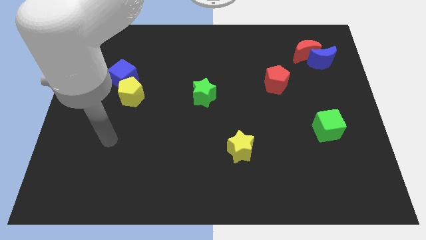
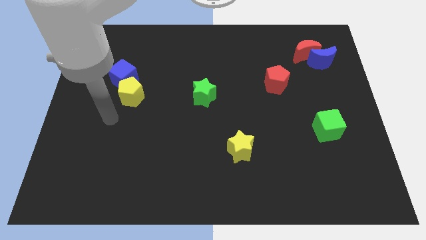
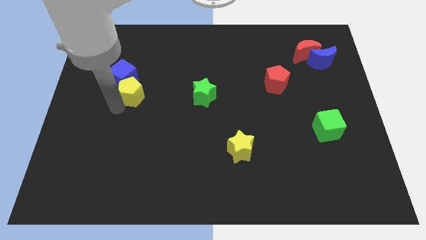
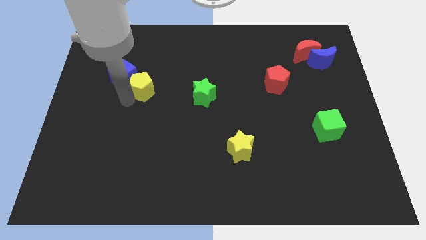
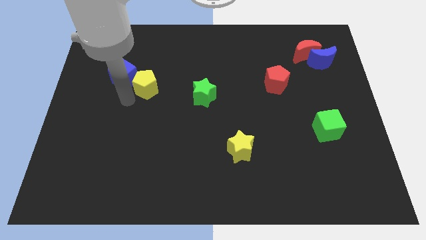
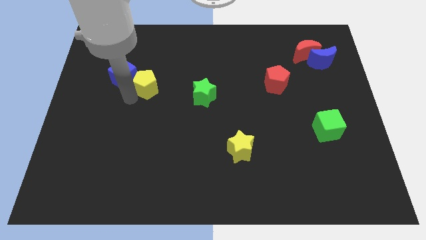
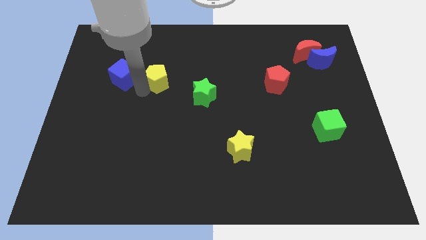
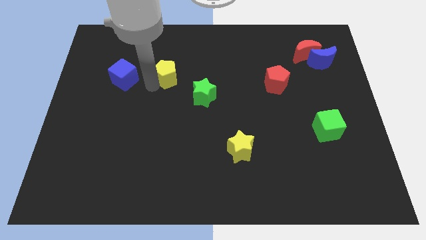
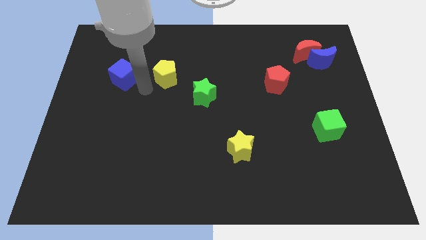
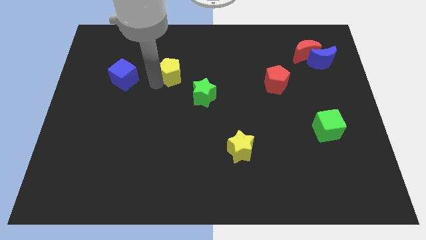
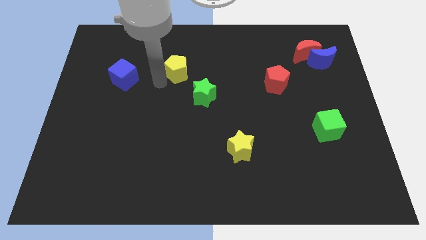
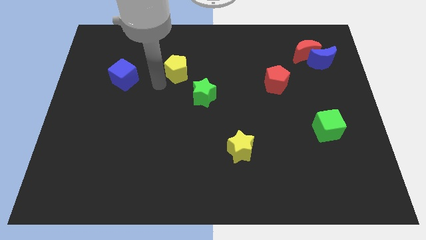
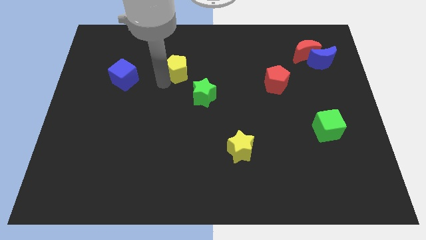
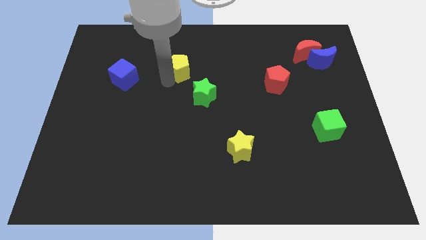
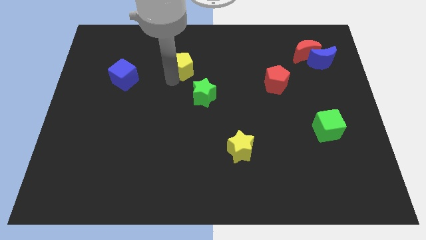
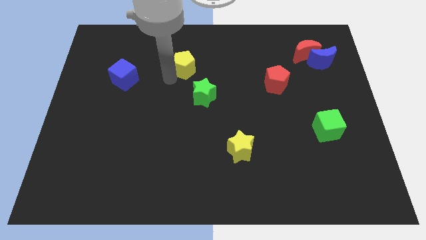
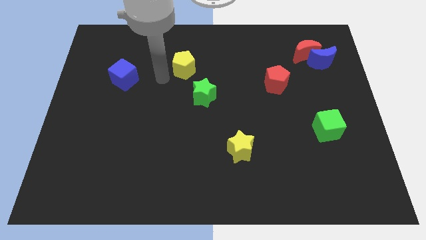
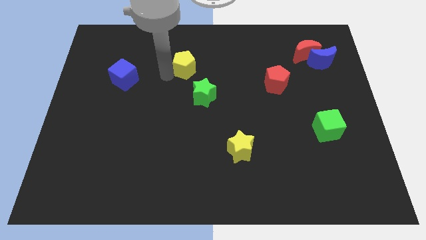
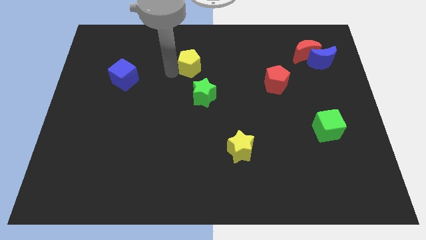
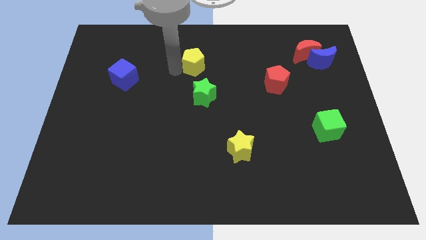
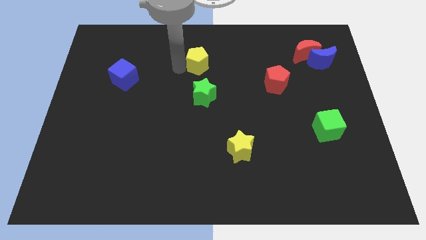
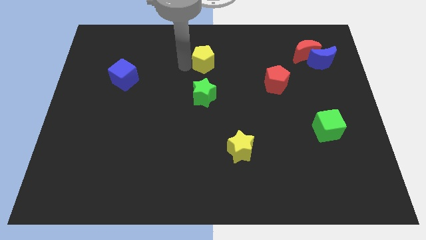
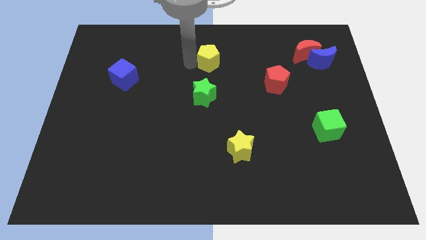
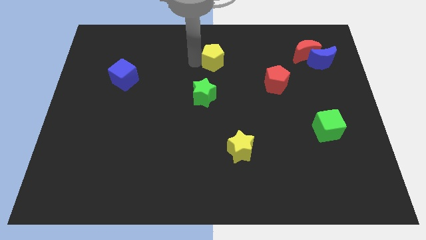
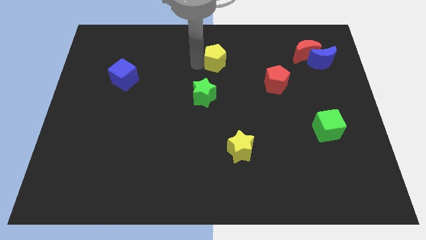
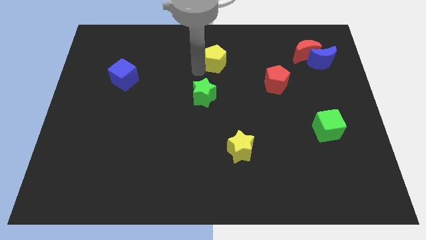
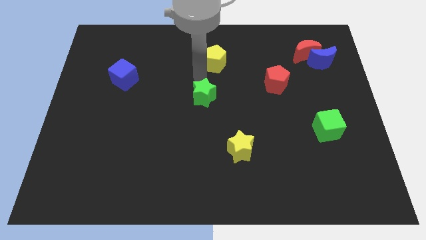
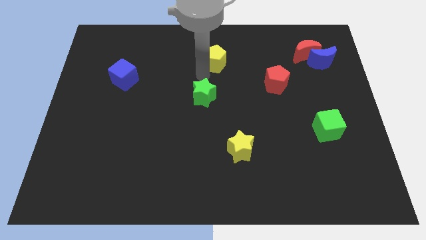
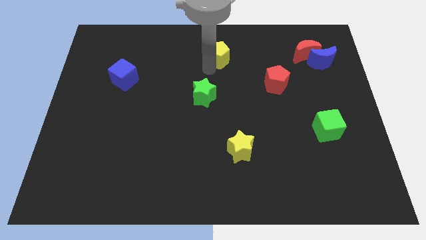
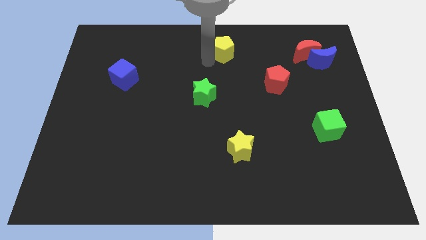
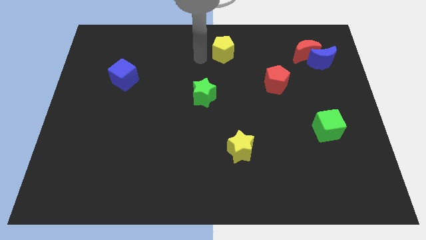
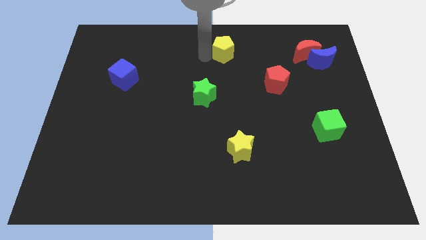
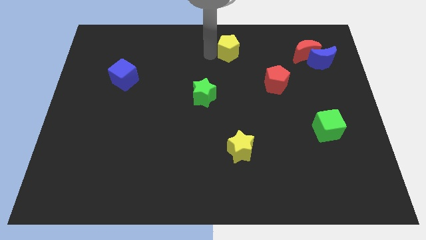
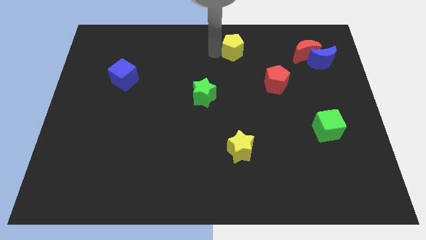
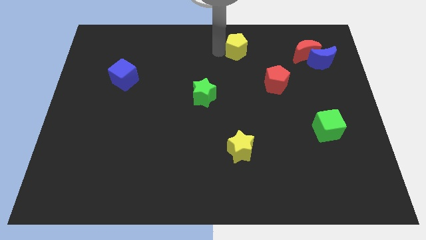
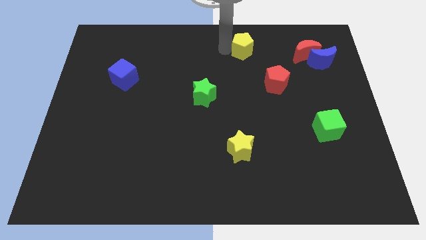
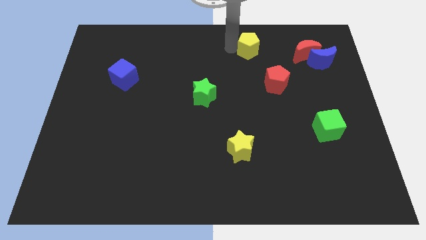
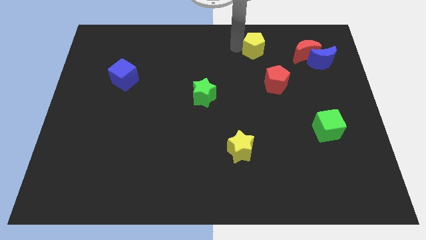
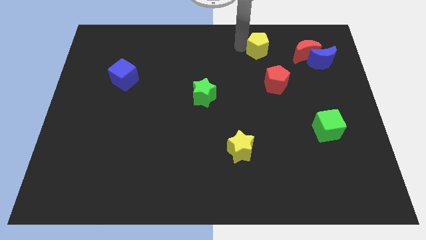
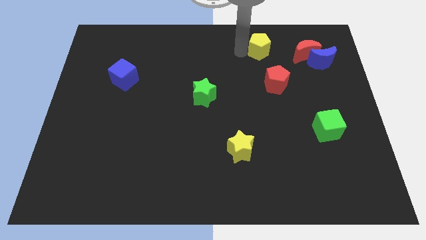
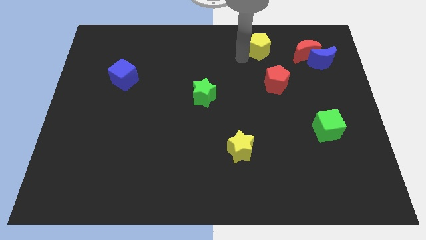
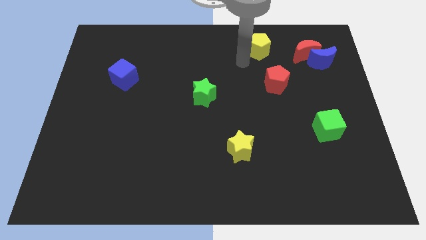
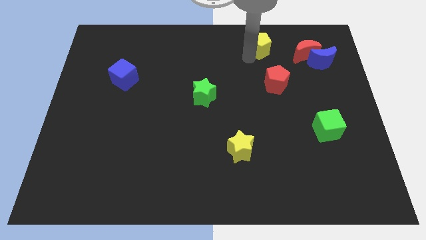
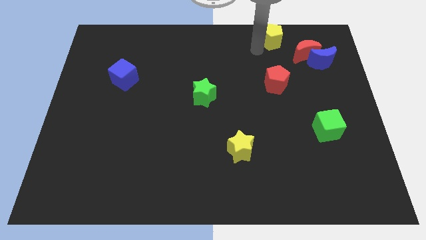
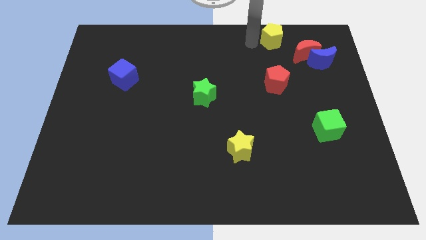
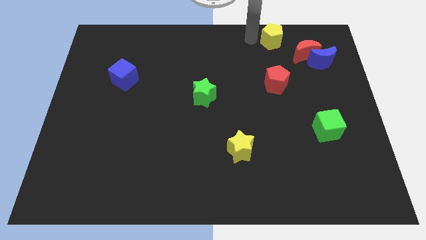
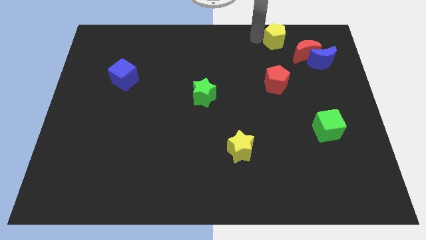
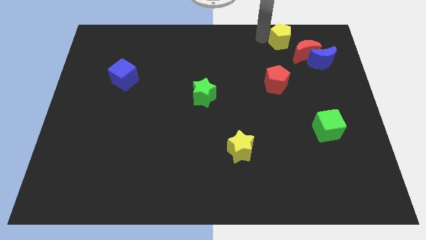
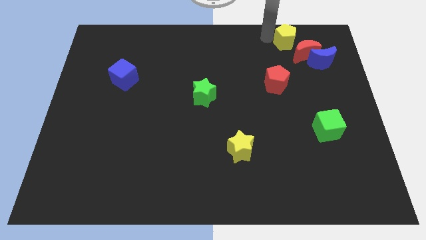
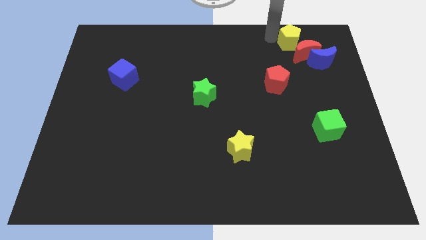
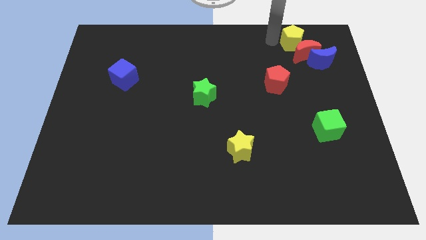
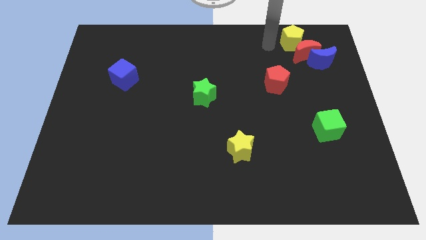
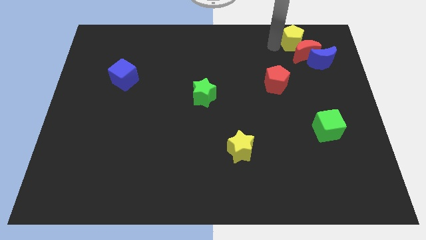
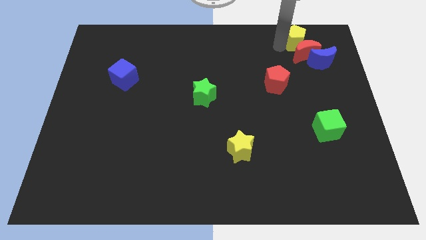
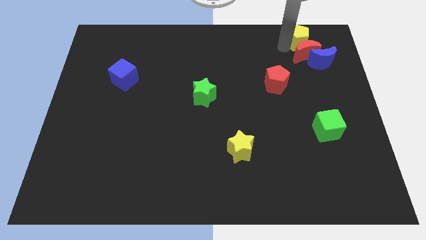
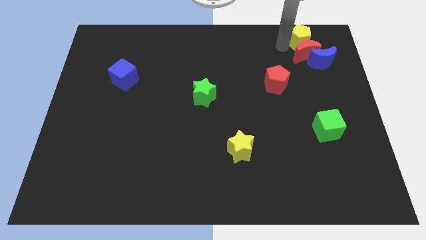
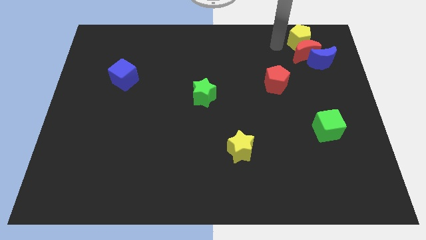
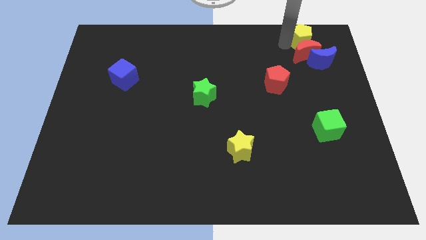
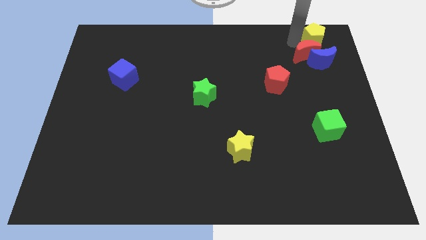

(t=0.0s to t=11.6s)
slide the yellow pentagon to the top right of the board
